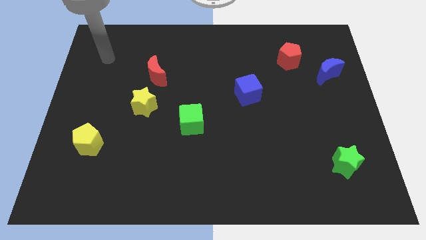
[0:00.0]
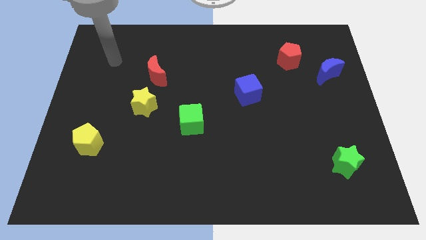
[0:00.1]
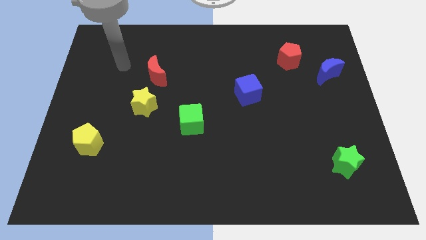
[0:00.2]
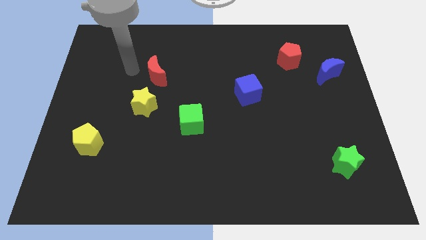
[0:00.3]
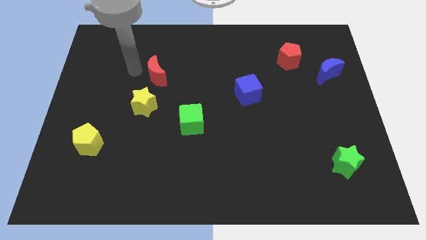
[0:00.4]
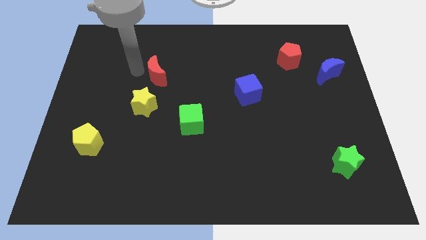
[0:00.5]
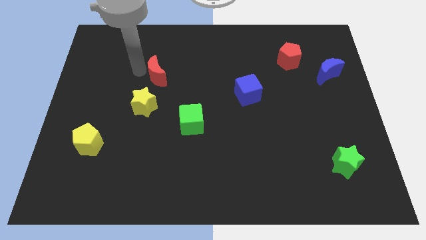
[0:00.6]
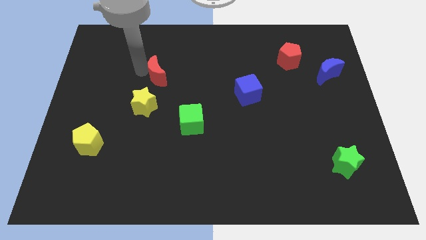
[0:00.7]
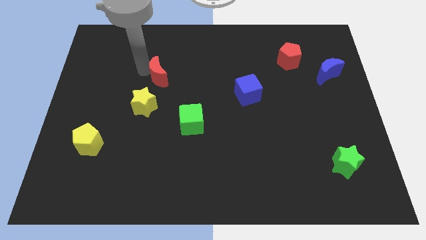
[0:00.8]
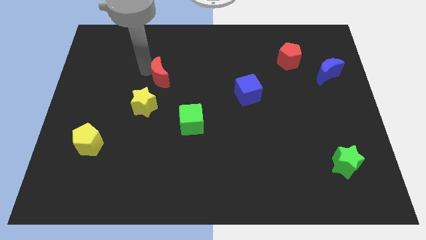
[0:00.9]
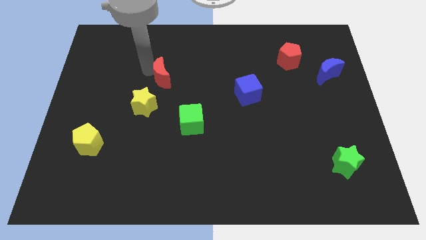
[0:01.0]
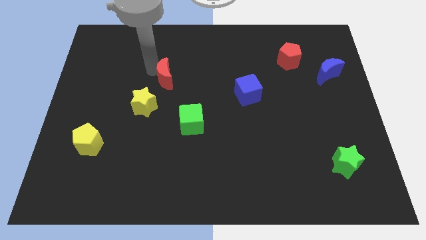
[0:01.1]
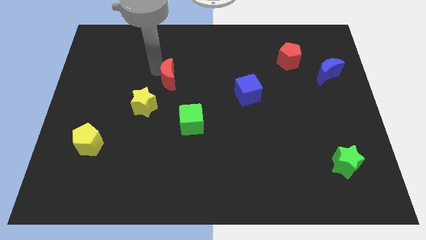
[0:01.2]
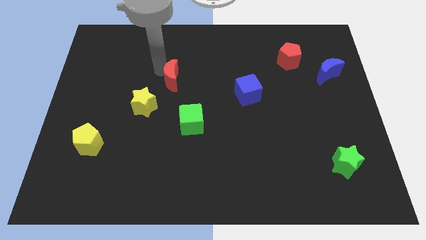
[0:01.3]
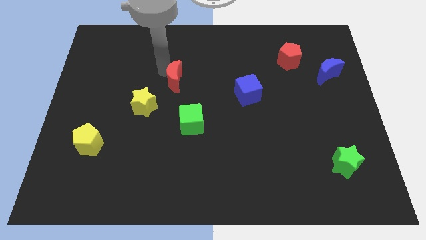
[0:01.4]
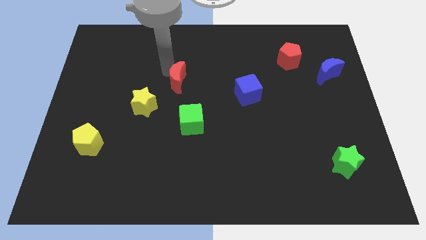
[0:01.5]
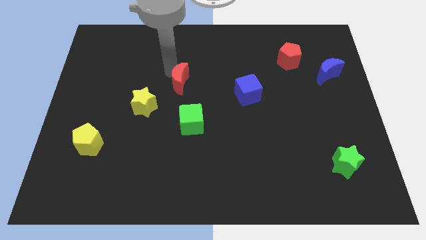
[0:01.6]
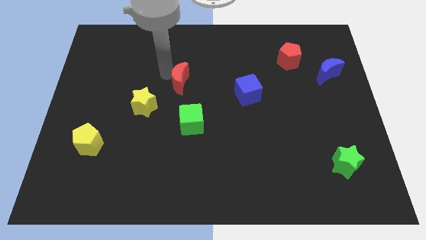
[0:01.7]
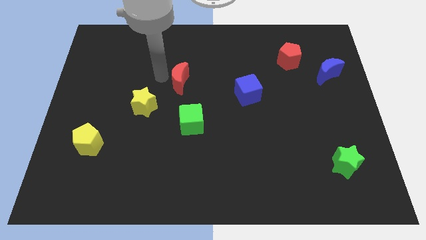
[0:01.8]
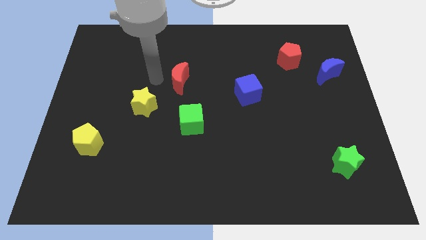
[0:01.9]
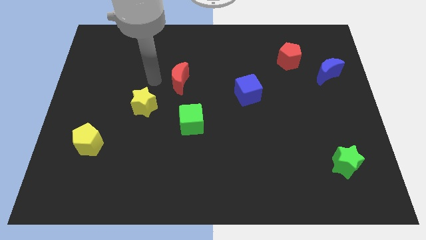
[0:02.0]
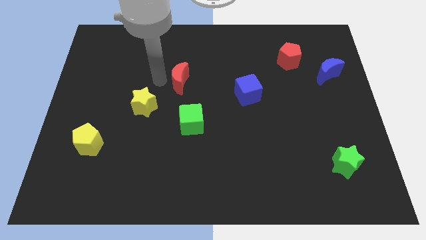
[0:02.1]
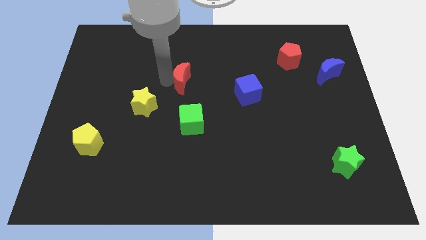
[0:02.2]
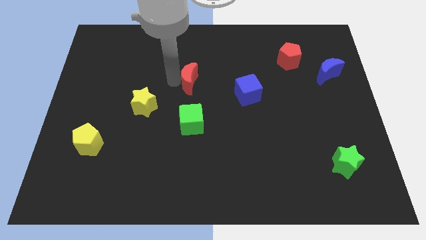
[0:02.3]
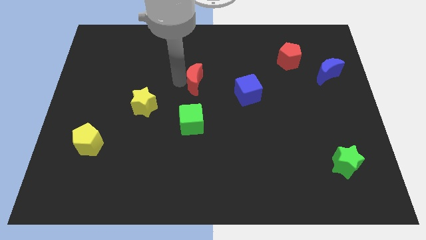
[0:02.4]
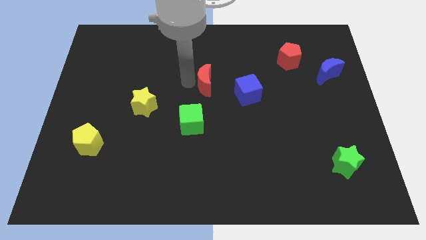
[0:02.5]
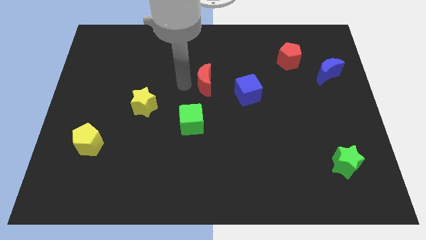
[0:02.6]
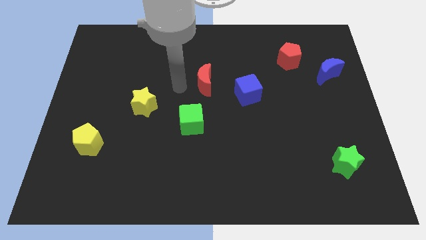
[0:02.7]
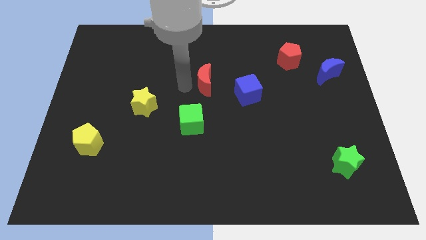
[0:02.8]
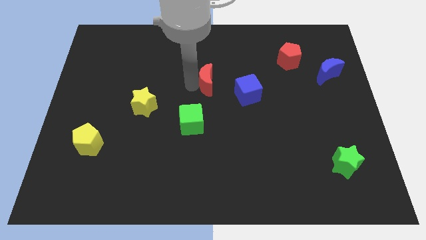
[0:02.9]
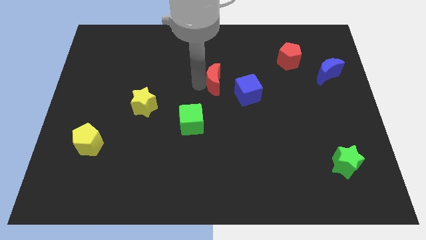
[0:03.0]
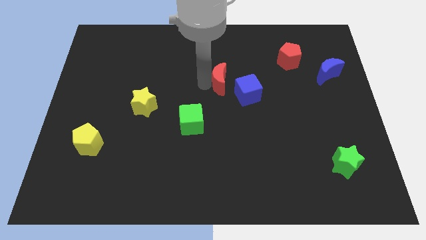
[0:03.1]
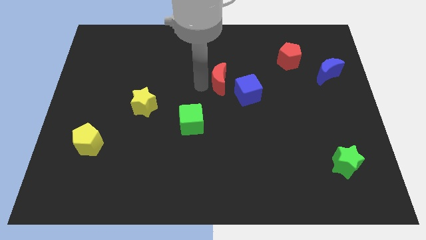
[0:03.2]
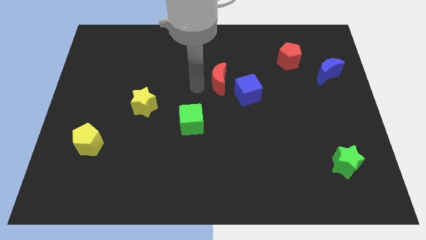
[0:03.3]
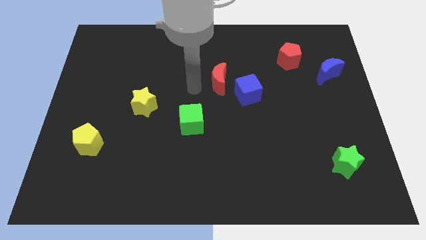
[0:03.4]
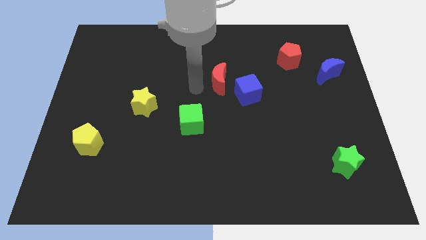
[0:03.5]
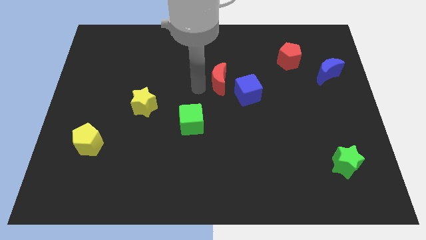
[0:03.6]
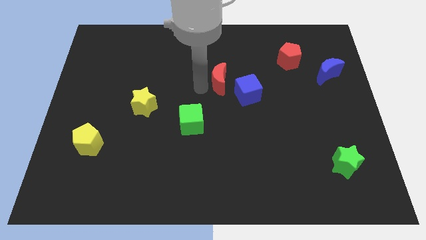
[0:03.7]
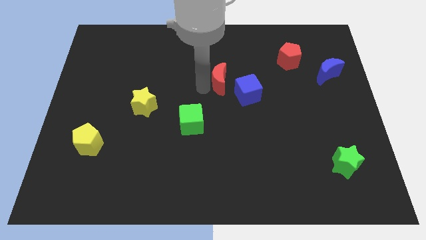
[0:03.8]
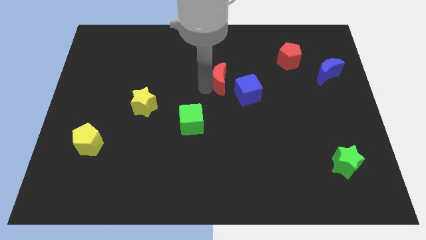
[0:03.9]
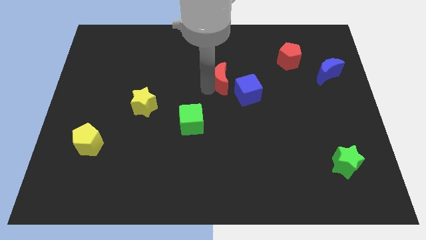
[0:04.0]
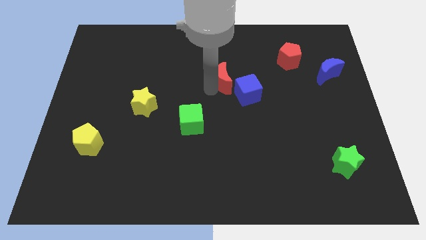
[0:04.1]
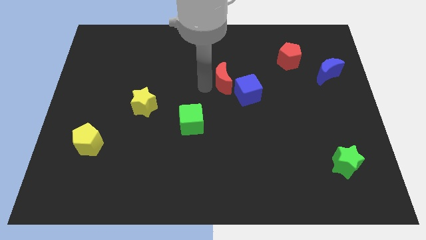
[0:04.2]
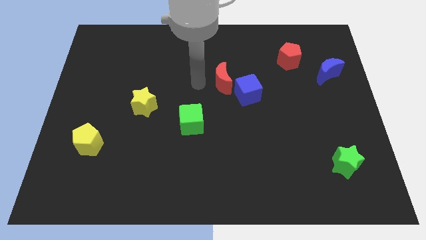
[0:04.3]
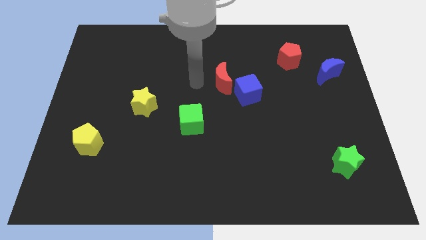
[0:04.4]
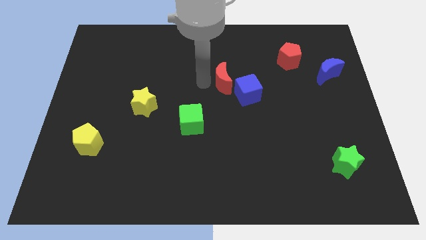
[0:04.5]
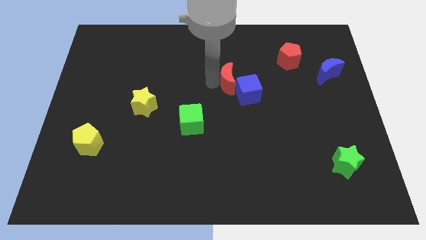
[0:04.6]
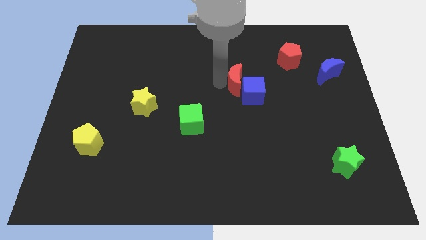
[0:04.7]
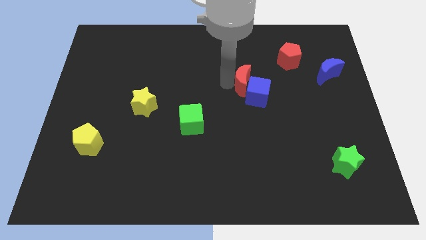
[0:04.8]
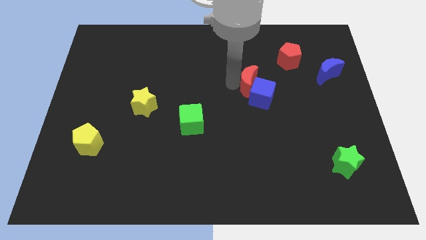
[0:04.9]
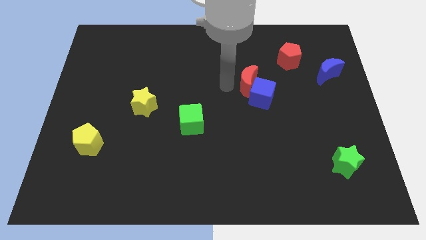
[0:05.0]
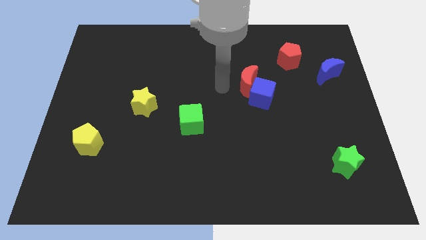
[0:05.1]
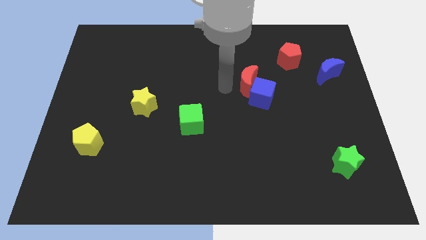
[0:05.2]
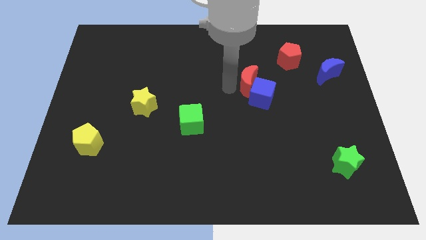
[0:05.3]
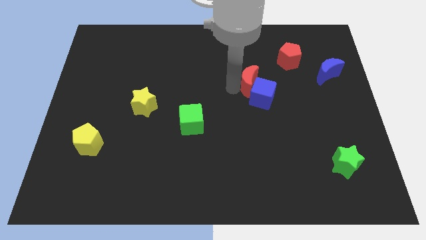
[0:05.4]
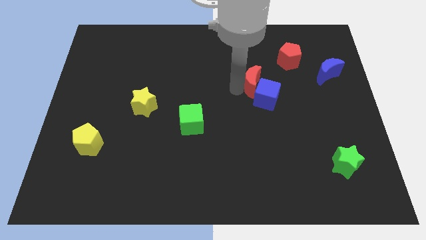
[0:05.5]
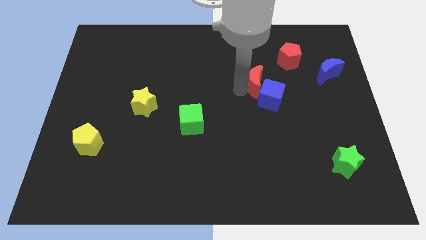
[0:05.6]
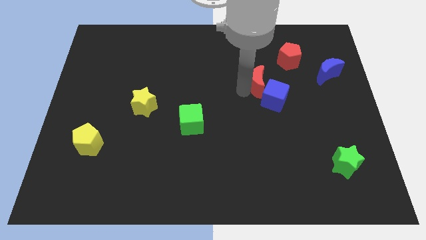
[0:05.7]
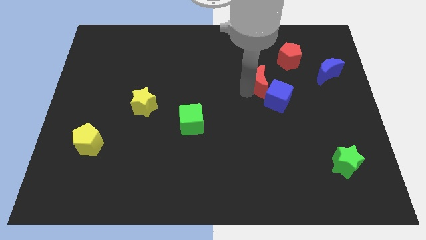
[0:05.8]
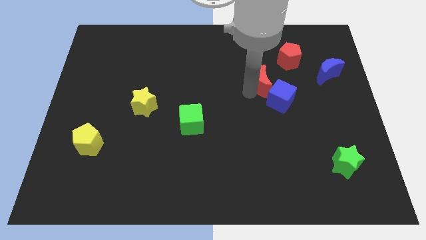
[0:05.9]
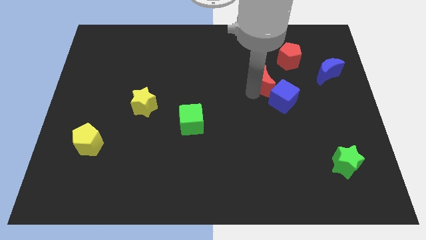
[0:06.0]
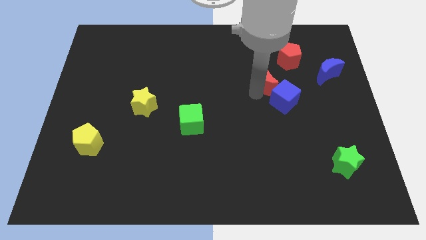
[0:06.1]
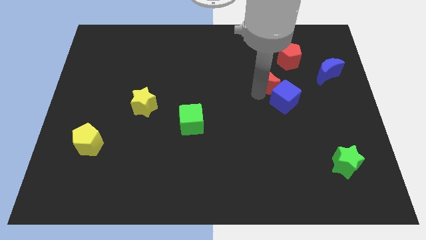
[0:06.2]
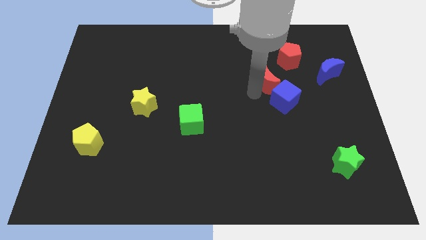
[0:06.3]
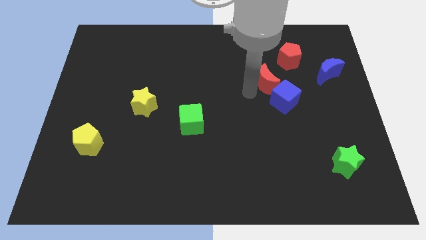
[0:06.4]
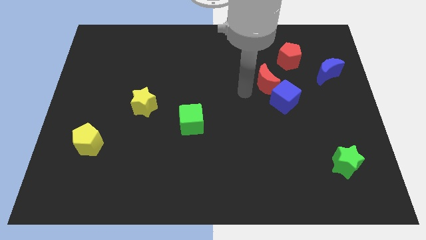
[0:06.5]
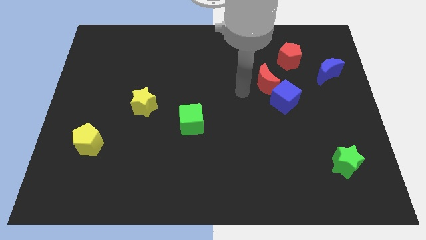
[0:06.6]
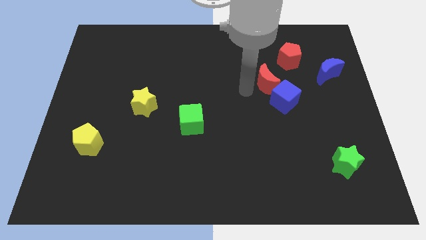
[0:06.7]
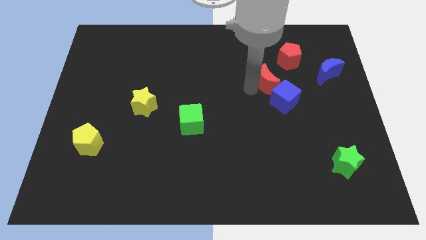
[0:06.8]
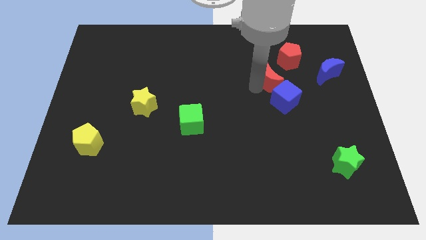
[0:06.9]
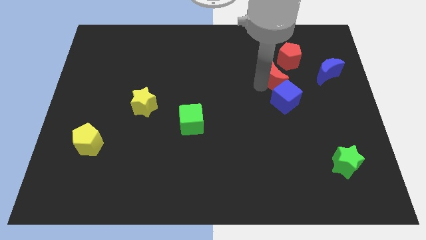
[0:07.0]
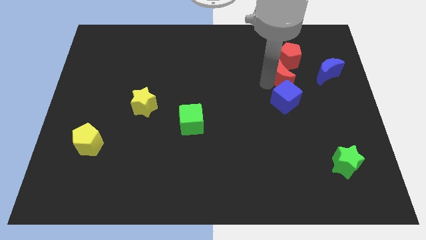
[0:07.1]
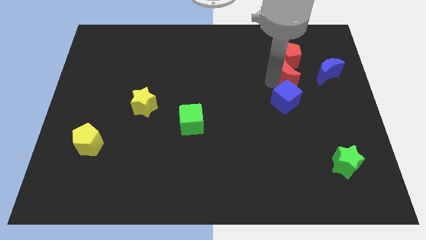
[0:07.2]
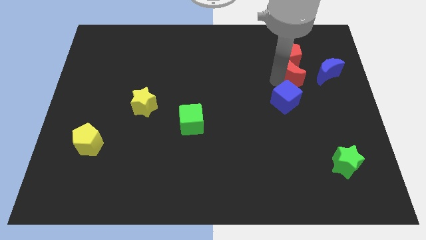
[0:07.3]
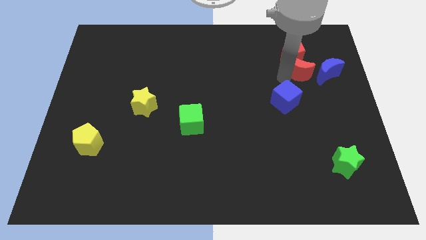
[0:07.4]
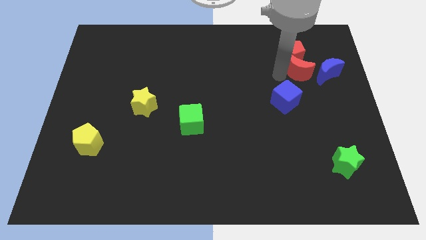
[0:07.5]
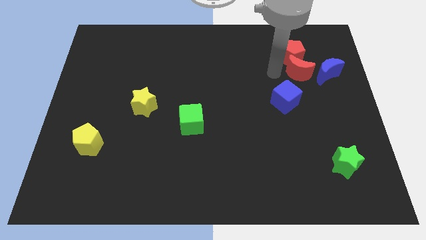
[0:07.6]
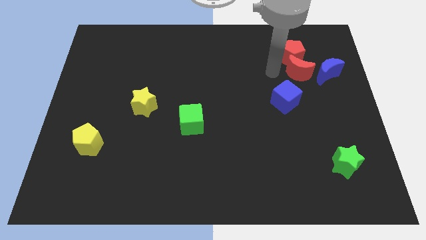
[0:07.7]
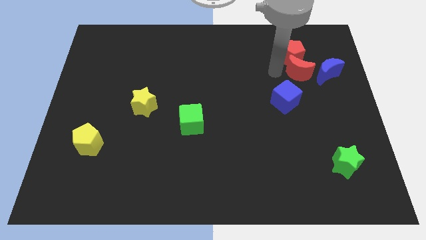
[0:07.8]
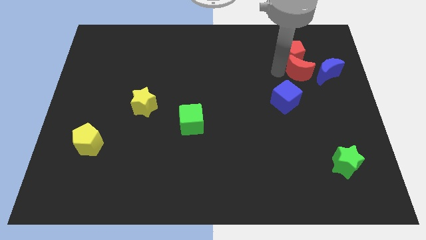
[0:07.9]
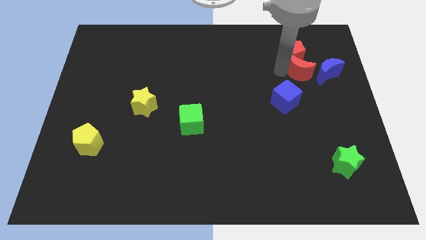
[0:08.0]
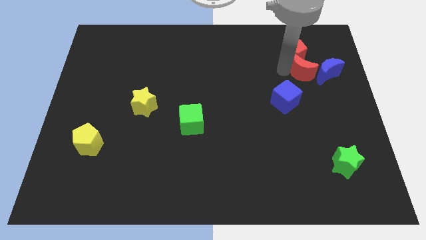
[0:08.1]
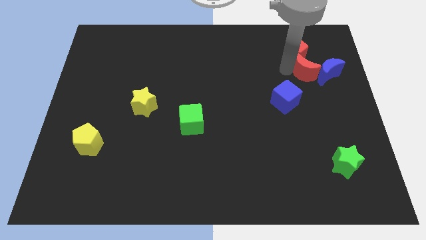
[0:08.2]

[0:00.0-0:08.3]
push the red moon to the blue moon
